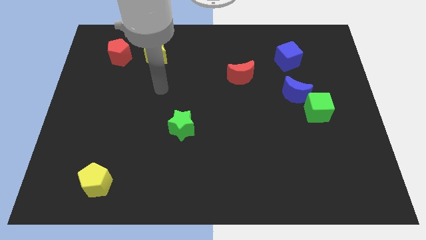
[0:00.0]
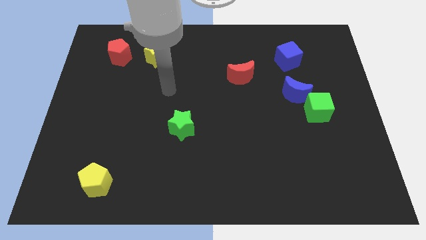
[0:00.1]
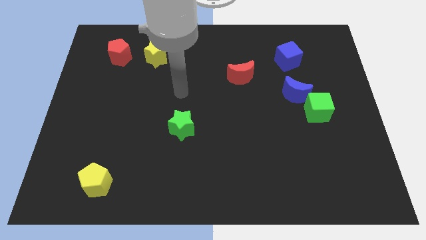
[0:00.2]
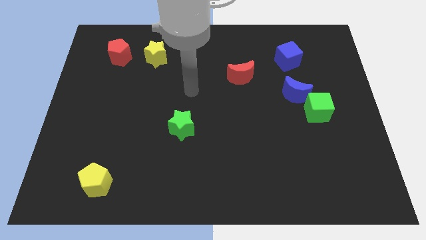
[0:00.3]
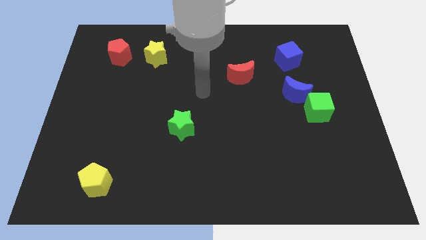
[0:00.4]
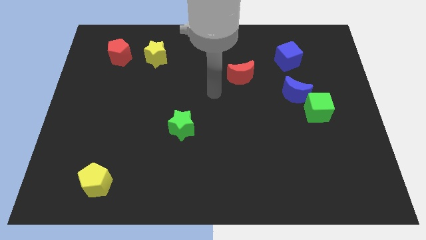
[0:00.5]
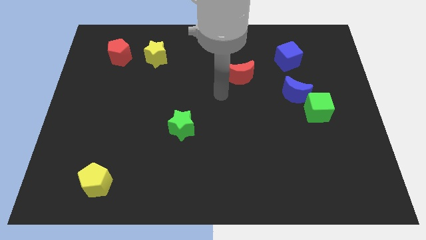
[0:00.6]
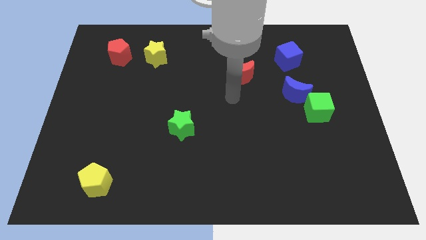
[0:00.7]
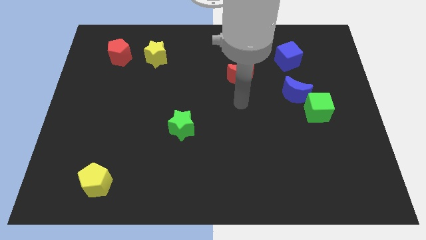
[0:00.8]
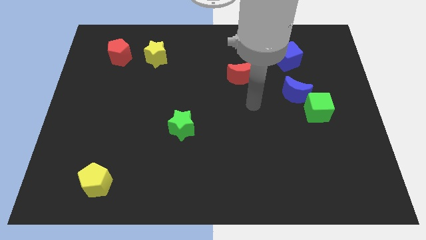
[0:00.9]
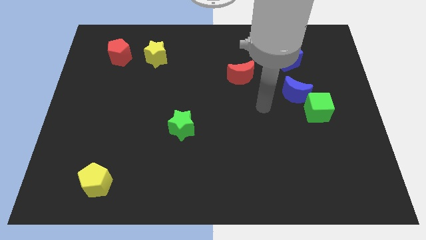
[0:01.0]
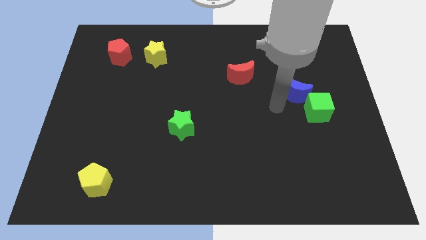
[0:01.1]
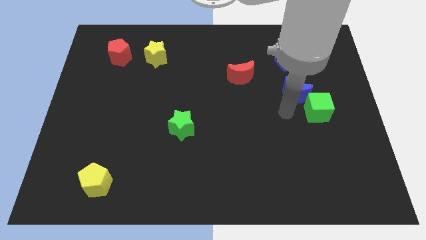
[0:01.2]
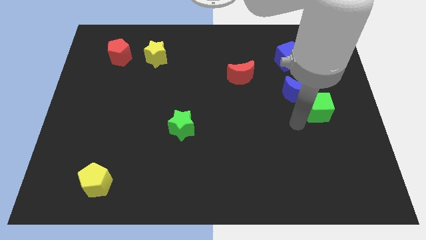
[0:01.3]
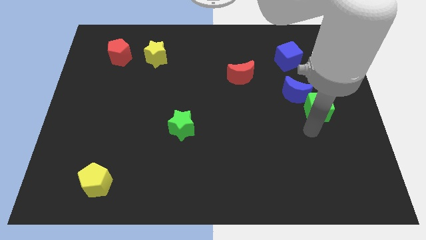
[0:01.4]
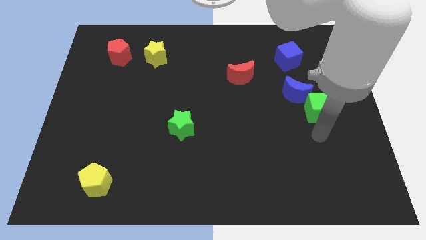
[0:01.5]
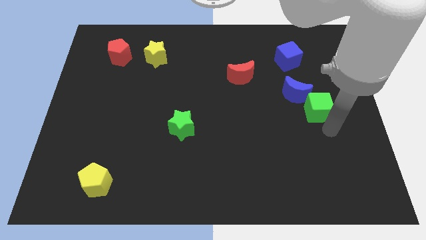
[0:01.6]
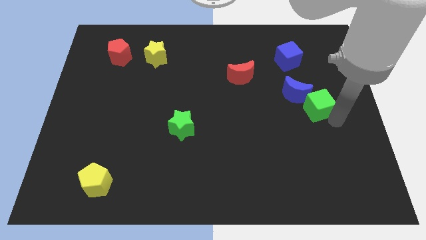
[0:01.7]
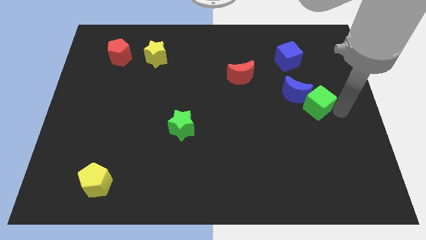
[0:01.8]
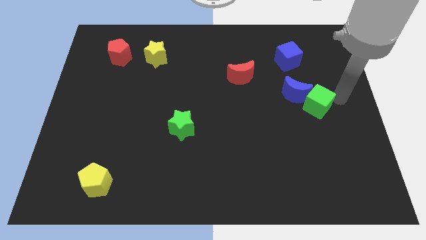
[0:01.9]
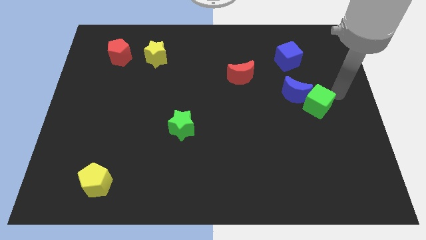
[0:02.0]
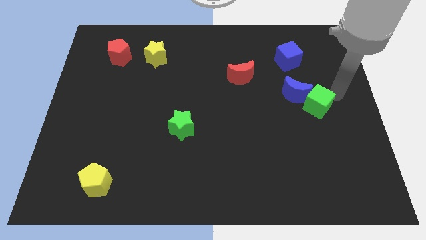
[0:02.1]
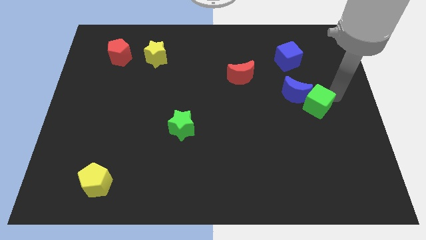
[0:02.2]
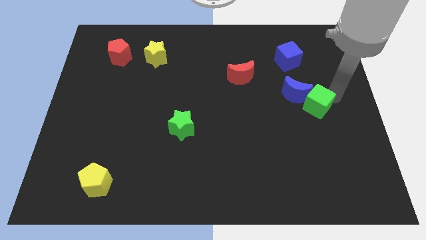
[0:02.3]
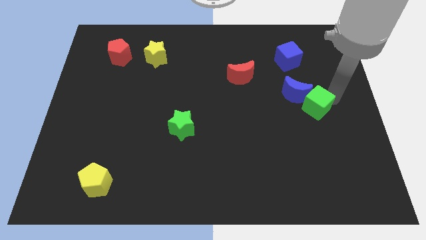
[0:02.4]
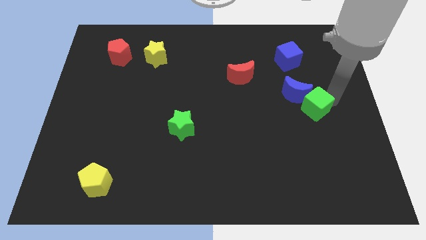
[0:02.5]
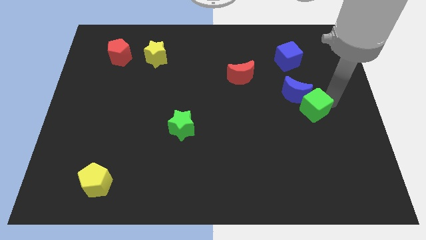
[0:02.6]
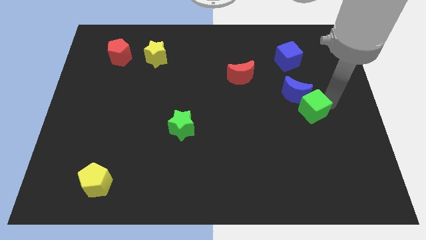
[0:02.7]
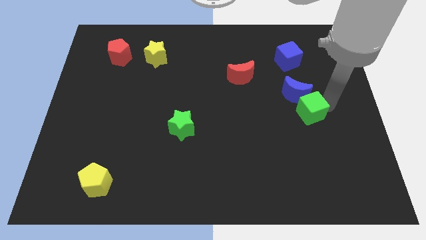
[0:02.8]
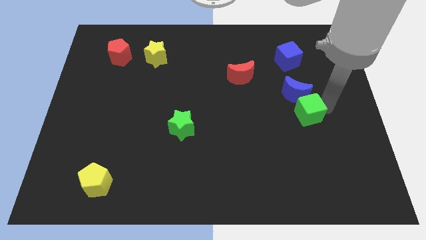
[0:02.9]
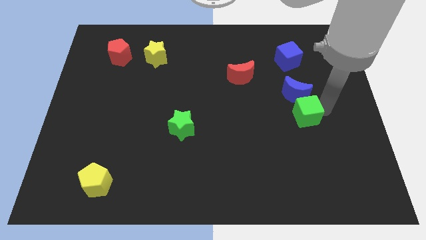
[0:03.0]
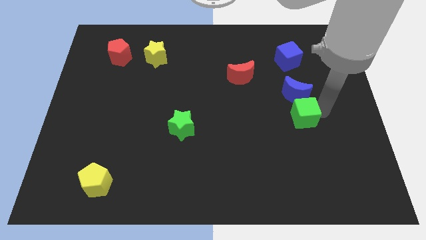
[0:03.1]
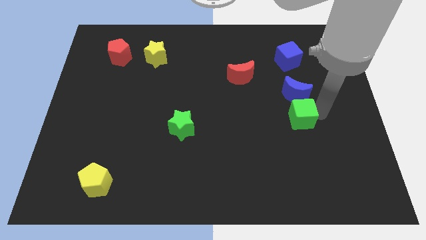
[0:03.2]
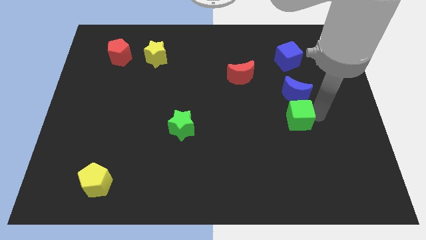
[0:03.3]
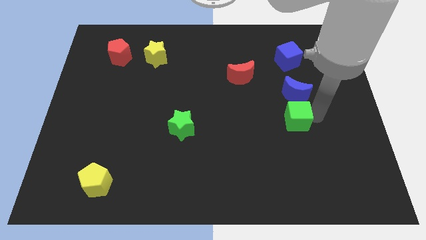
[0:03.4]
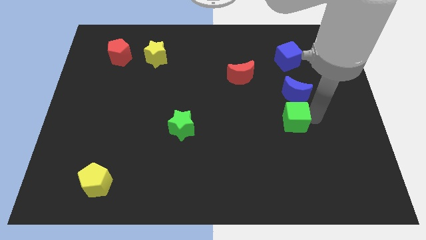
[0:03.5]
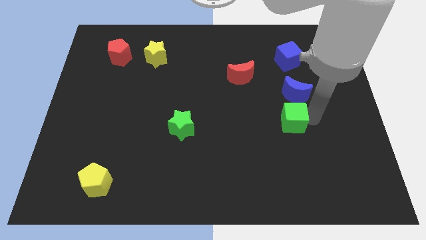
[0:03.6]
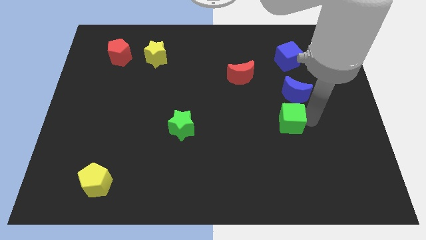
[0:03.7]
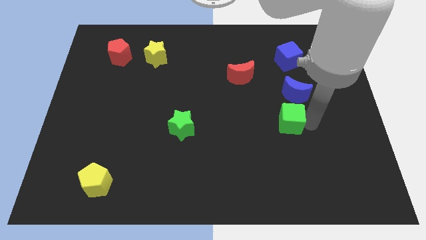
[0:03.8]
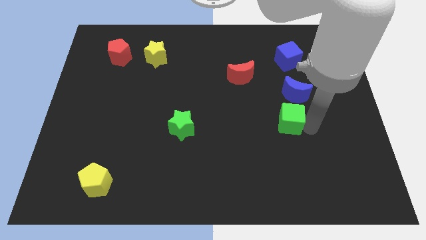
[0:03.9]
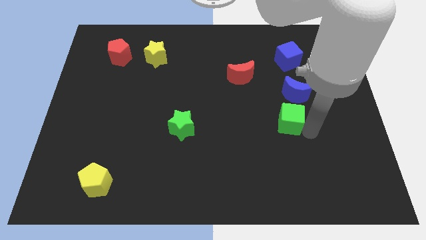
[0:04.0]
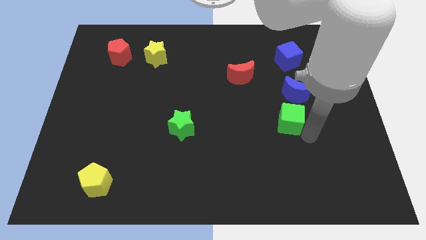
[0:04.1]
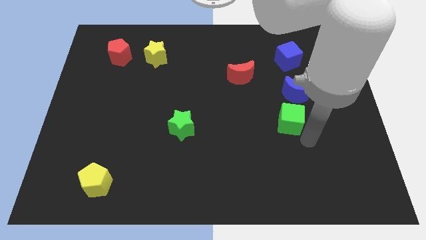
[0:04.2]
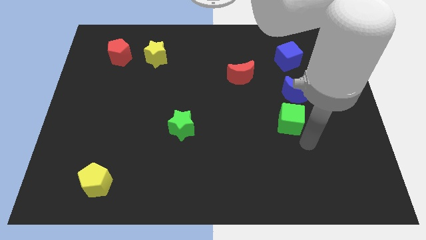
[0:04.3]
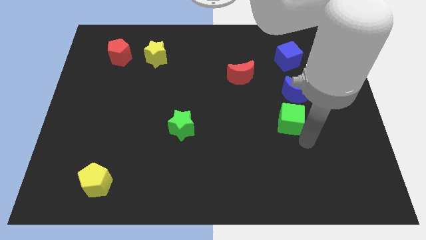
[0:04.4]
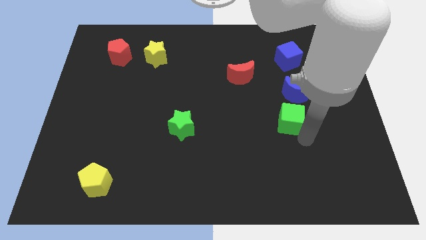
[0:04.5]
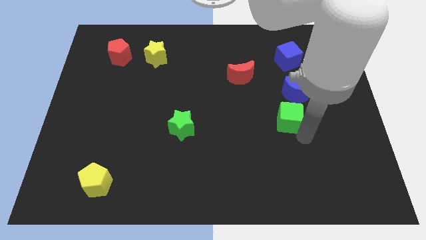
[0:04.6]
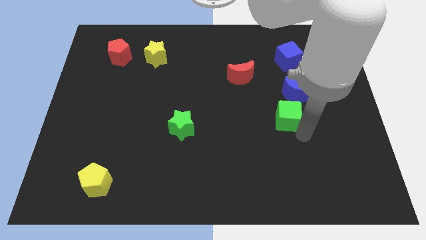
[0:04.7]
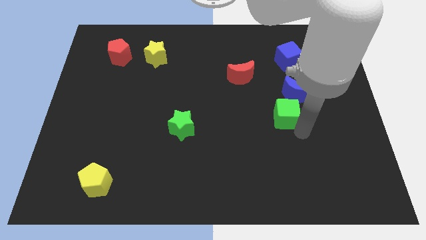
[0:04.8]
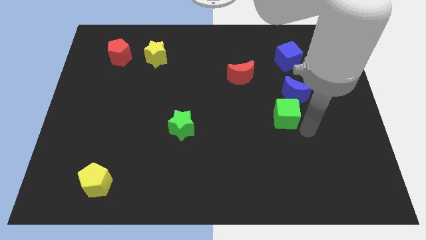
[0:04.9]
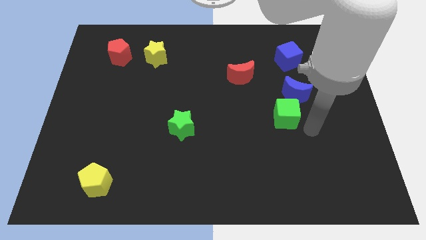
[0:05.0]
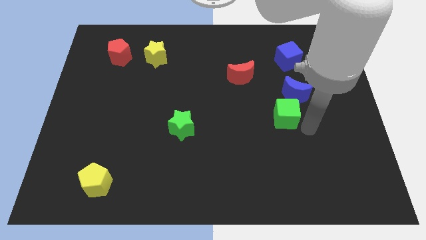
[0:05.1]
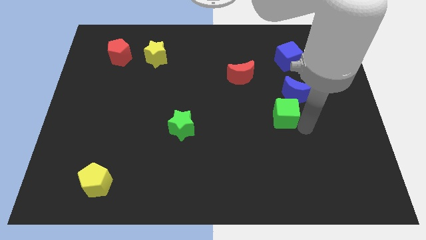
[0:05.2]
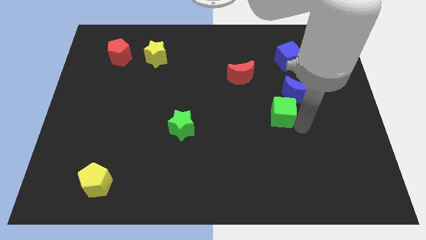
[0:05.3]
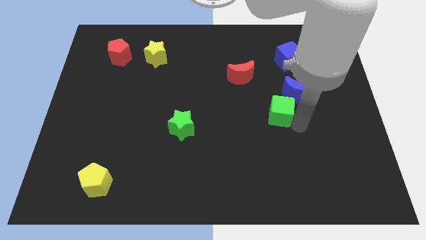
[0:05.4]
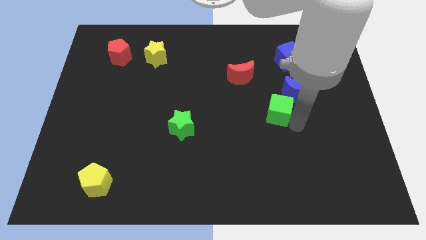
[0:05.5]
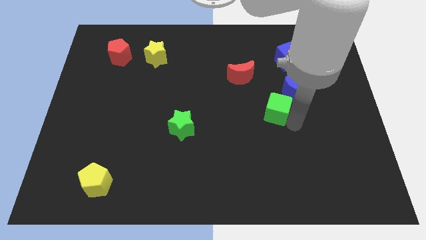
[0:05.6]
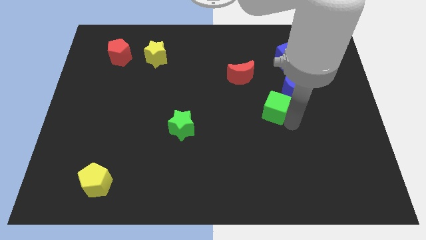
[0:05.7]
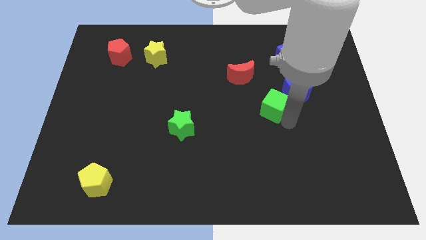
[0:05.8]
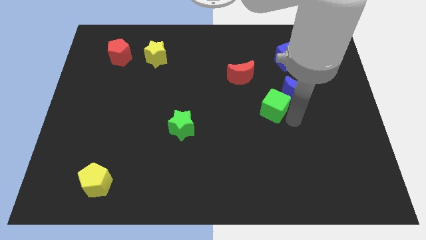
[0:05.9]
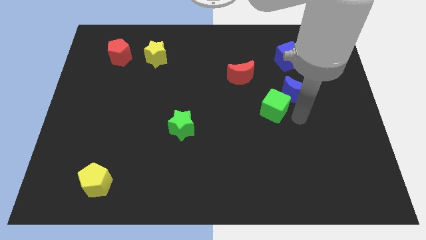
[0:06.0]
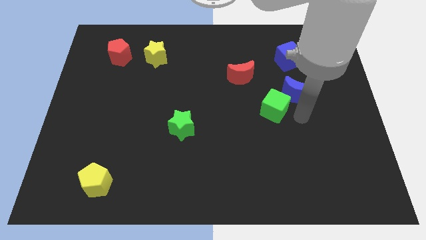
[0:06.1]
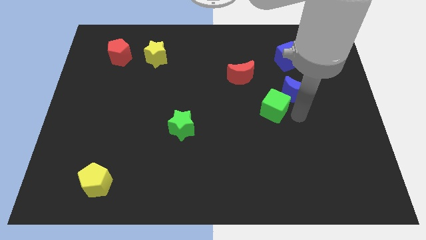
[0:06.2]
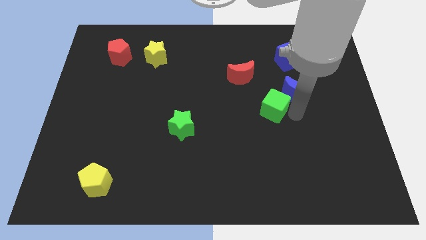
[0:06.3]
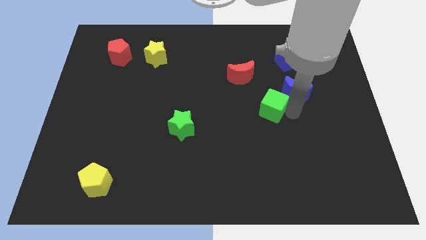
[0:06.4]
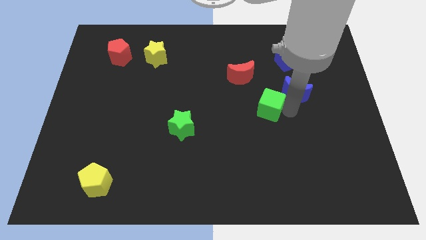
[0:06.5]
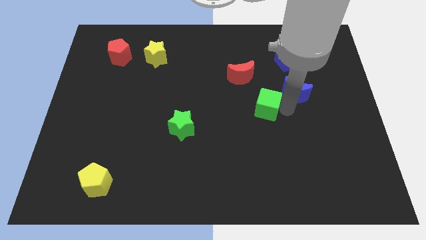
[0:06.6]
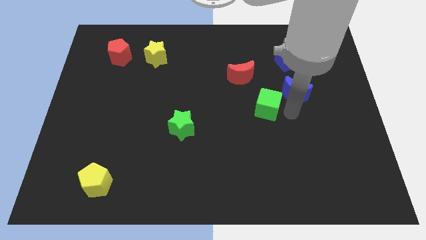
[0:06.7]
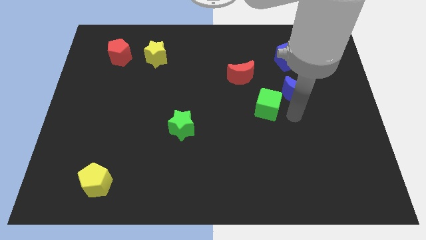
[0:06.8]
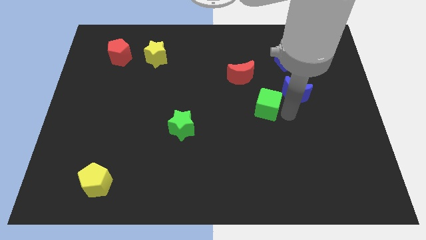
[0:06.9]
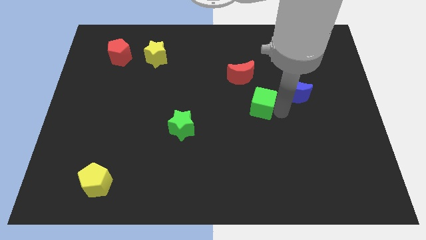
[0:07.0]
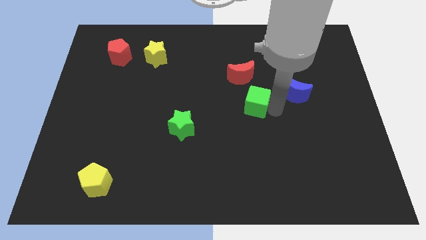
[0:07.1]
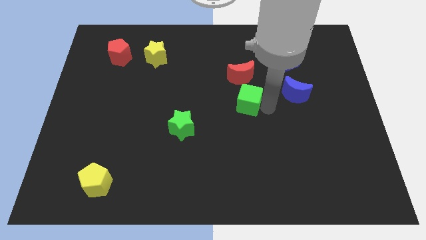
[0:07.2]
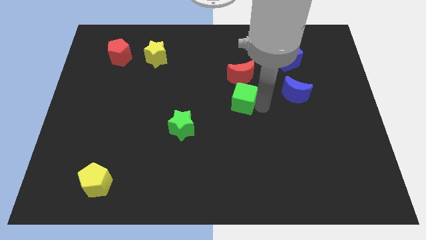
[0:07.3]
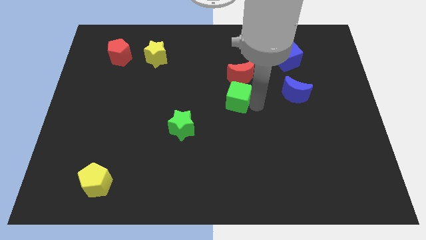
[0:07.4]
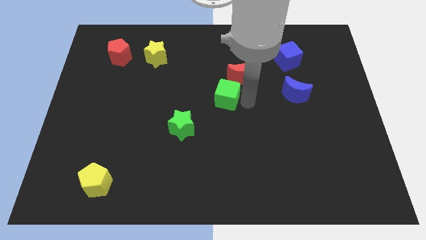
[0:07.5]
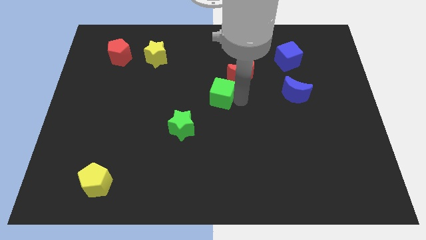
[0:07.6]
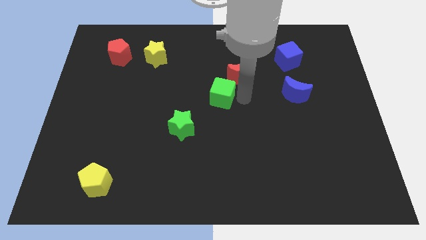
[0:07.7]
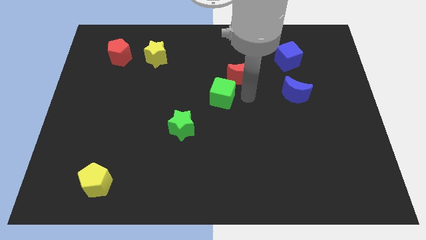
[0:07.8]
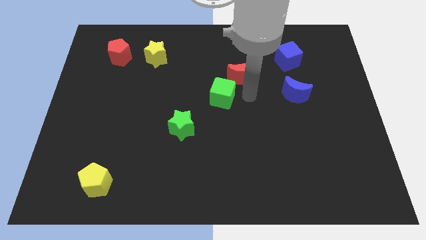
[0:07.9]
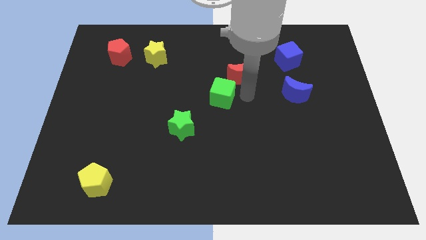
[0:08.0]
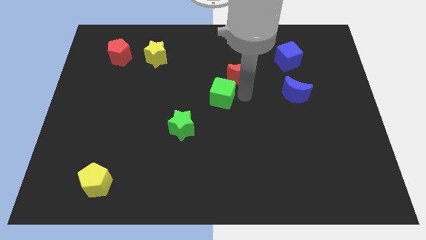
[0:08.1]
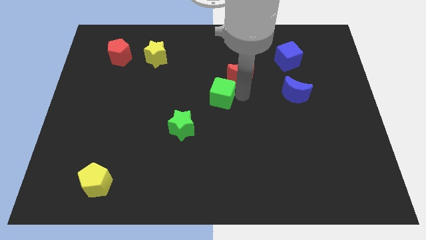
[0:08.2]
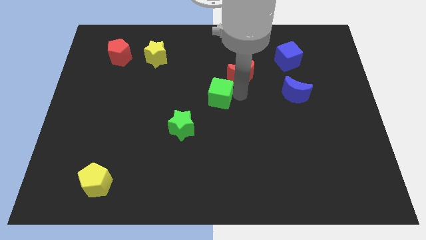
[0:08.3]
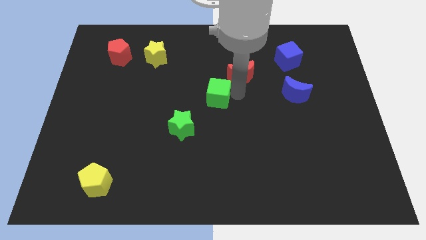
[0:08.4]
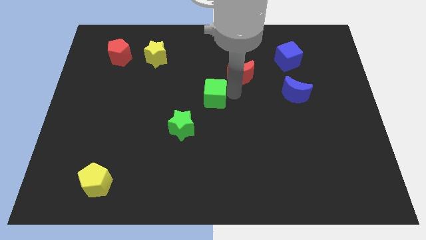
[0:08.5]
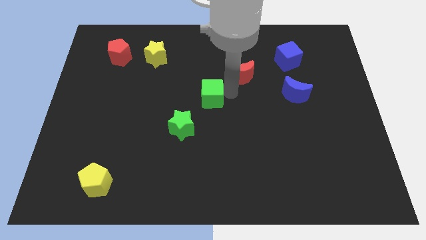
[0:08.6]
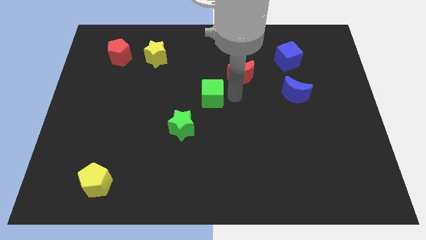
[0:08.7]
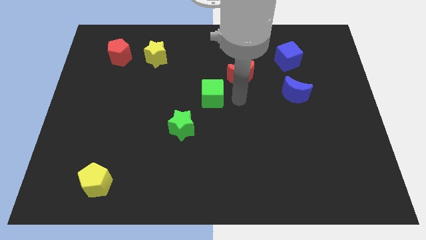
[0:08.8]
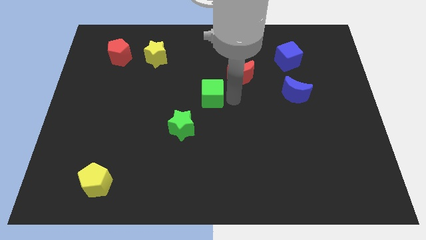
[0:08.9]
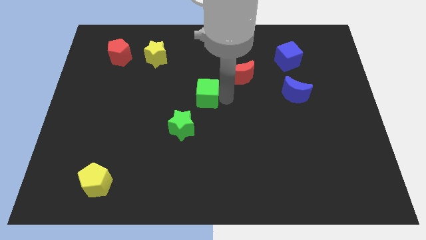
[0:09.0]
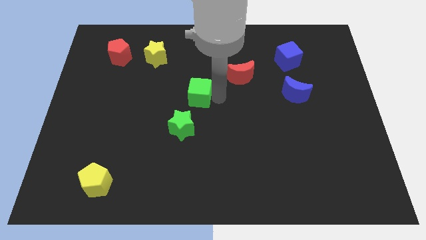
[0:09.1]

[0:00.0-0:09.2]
move the green cube to the top of the green star
